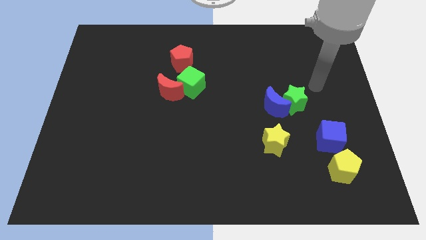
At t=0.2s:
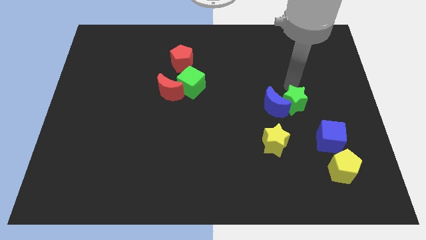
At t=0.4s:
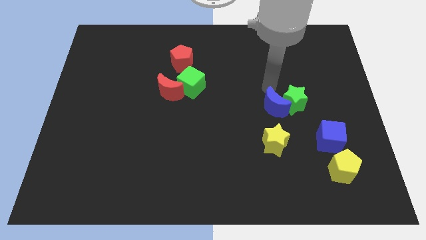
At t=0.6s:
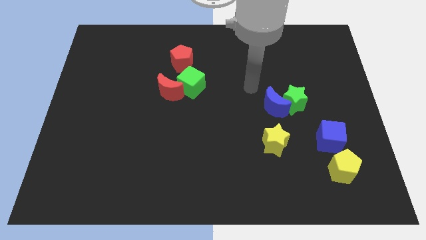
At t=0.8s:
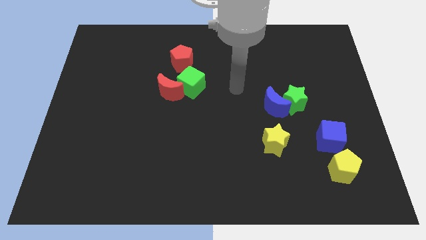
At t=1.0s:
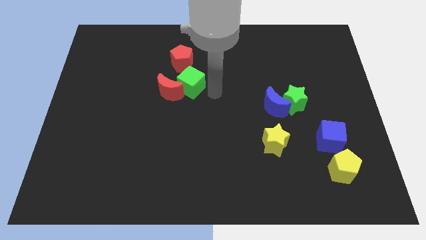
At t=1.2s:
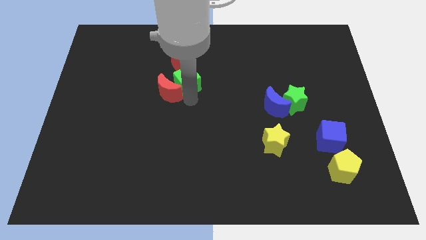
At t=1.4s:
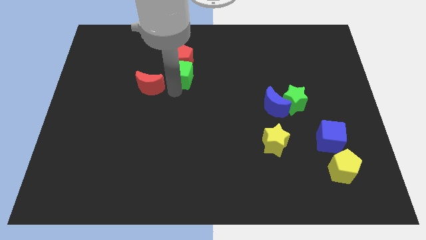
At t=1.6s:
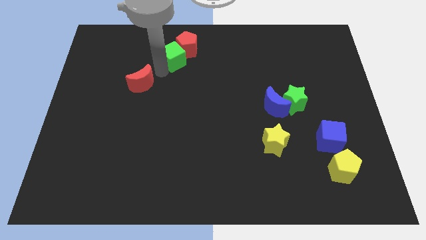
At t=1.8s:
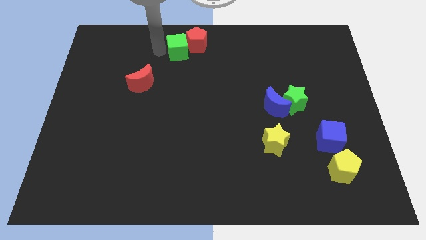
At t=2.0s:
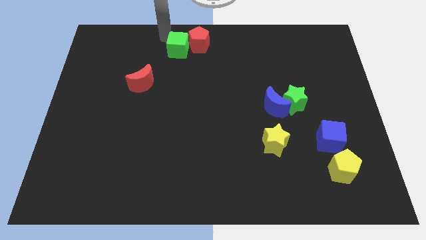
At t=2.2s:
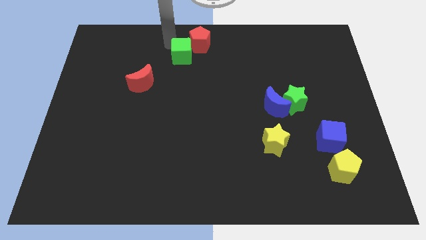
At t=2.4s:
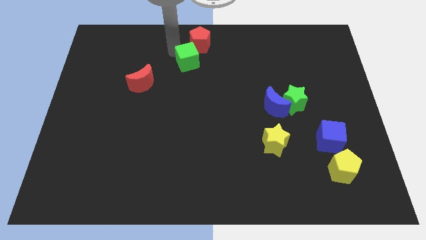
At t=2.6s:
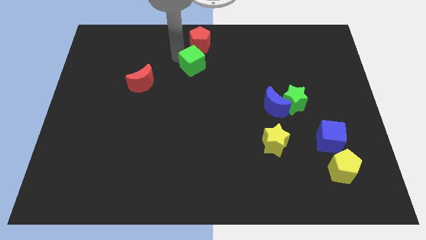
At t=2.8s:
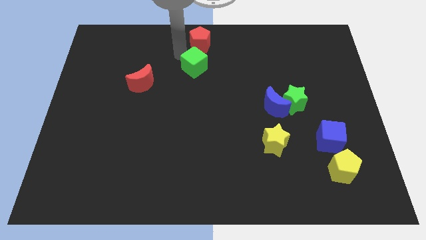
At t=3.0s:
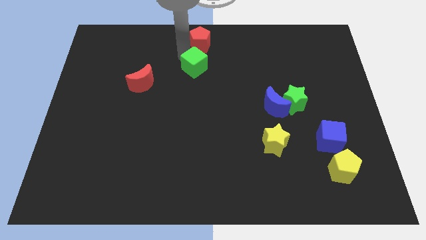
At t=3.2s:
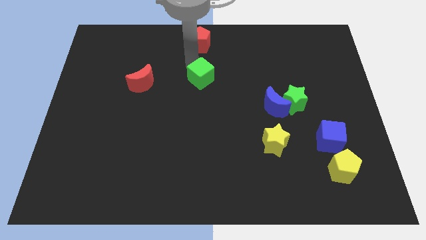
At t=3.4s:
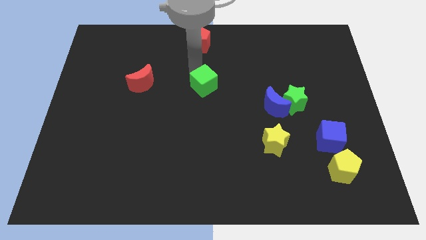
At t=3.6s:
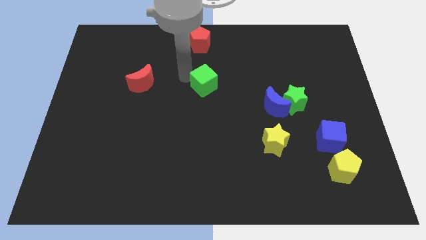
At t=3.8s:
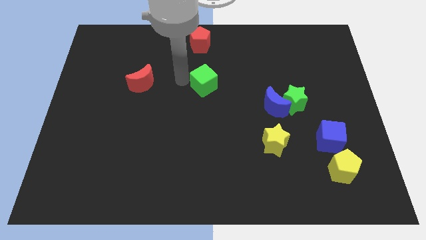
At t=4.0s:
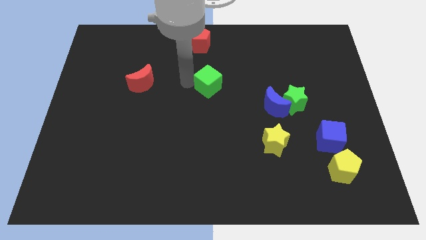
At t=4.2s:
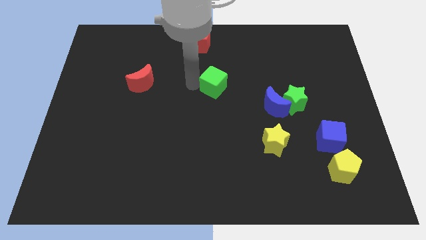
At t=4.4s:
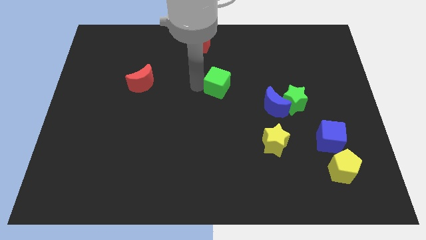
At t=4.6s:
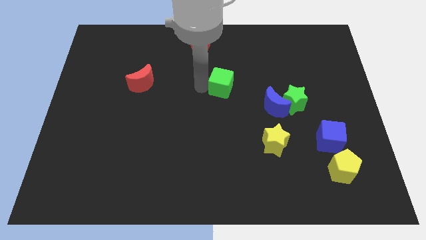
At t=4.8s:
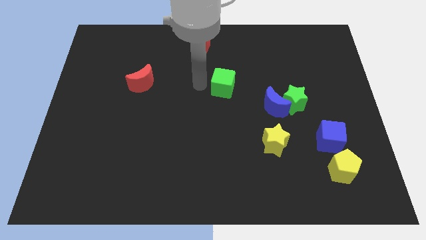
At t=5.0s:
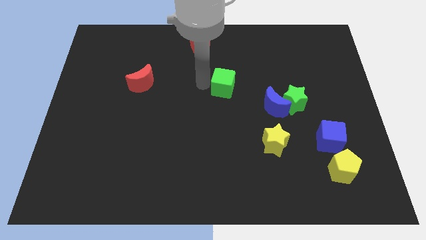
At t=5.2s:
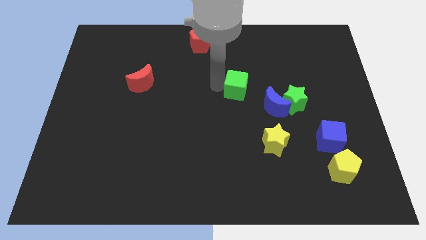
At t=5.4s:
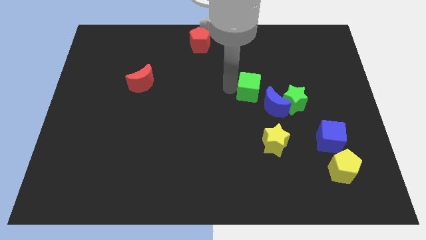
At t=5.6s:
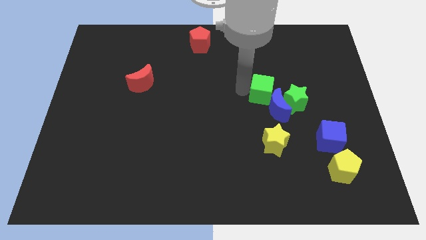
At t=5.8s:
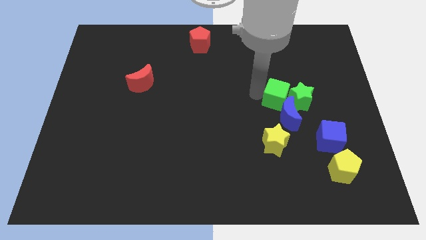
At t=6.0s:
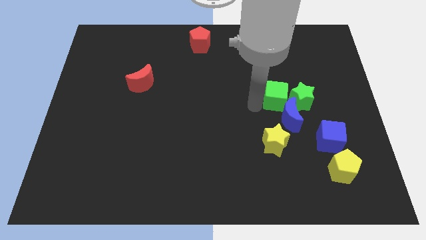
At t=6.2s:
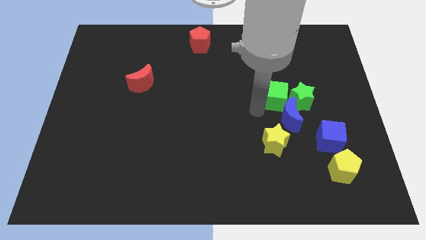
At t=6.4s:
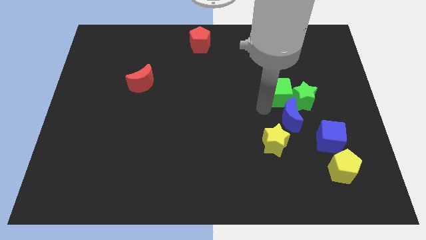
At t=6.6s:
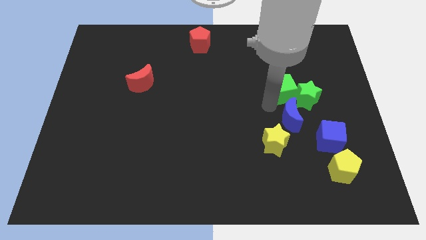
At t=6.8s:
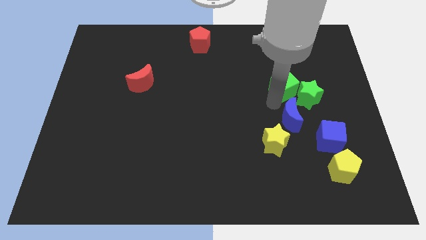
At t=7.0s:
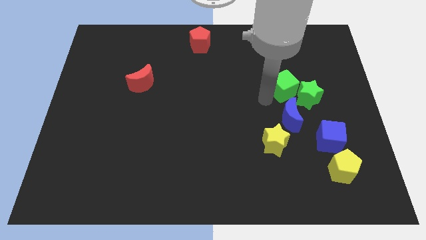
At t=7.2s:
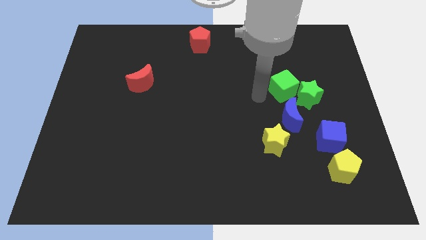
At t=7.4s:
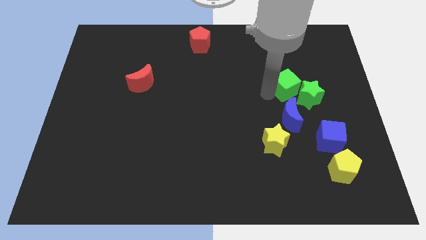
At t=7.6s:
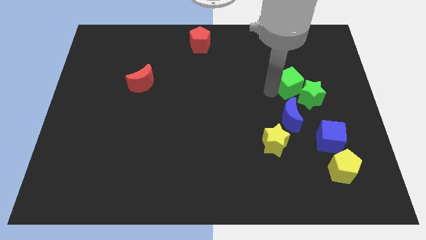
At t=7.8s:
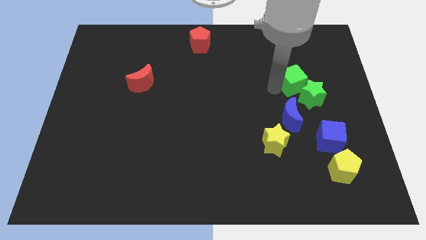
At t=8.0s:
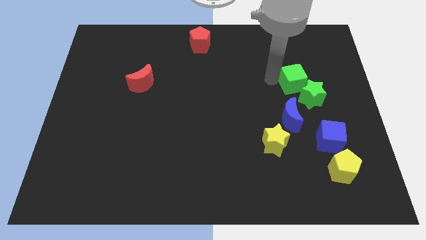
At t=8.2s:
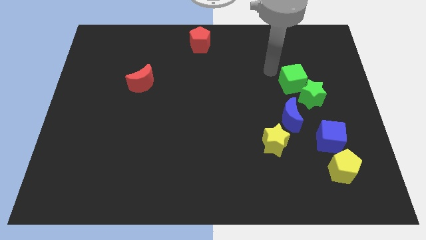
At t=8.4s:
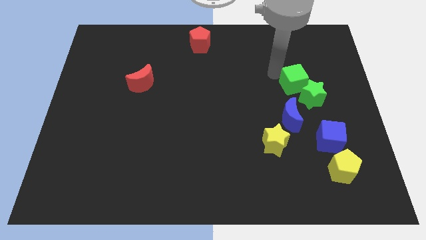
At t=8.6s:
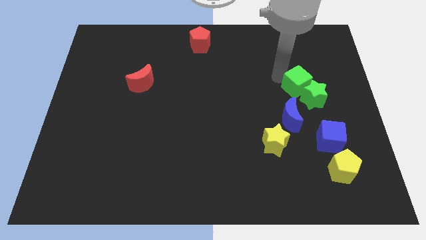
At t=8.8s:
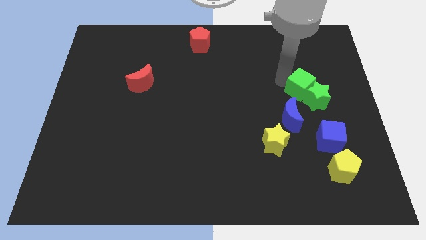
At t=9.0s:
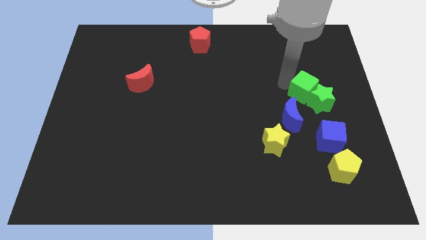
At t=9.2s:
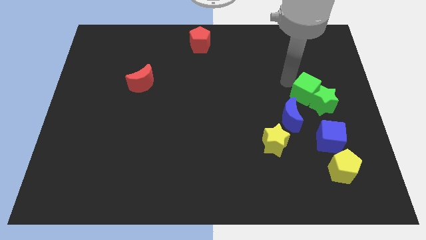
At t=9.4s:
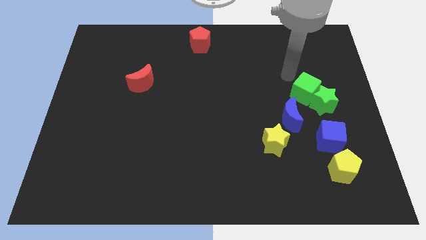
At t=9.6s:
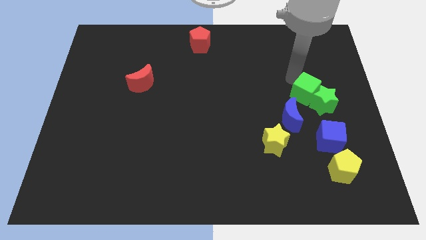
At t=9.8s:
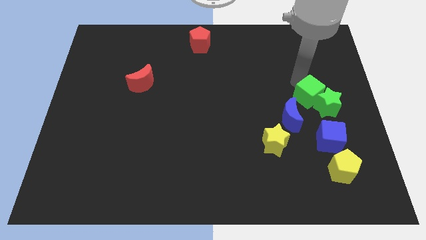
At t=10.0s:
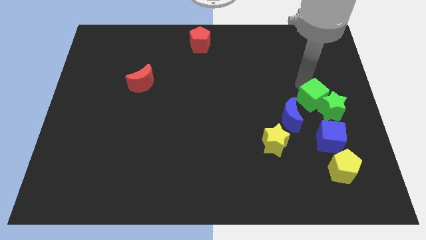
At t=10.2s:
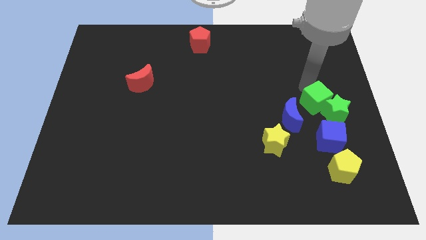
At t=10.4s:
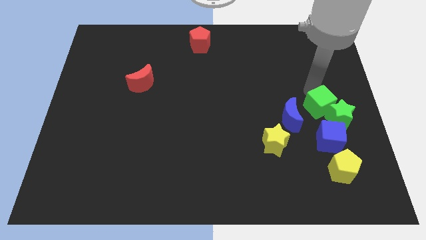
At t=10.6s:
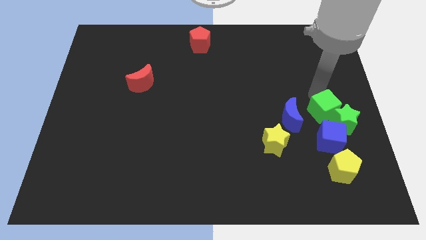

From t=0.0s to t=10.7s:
push the green cube above the yellow pentagon

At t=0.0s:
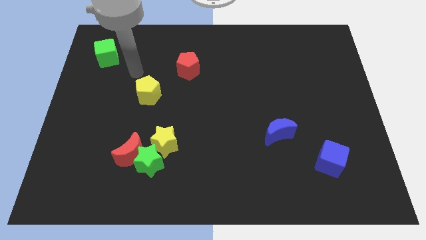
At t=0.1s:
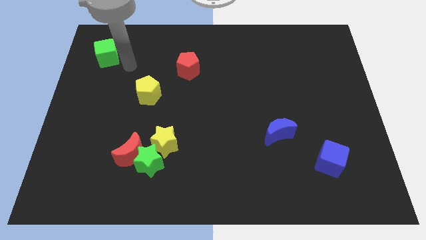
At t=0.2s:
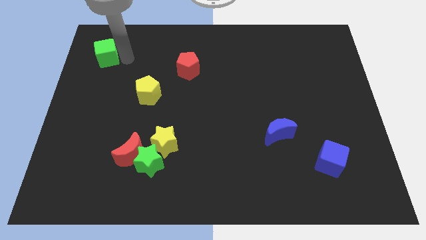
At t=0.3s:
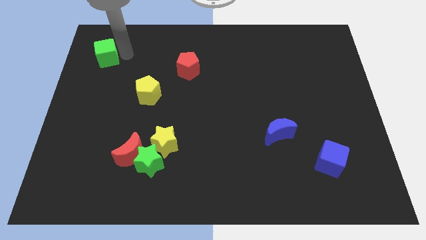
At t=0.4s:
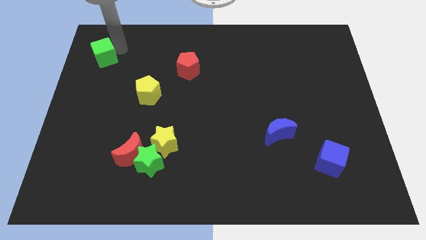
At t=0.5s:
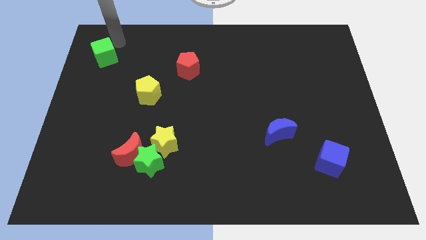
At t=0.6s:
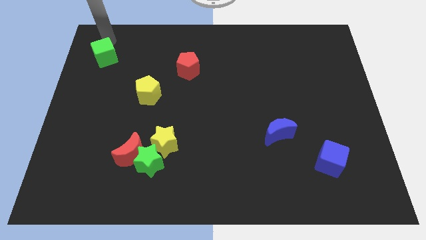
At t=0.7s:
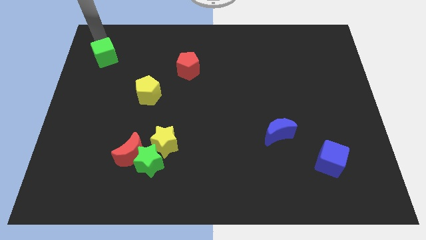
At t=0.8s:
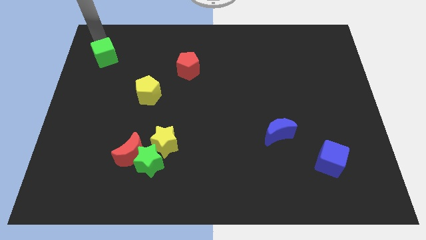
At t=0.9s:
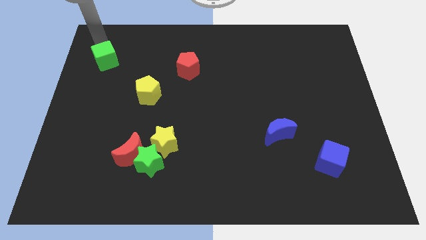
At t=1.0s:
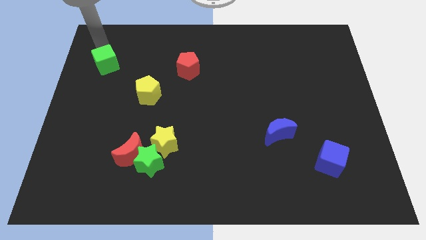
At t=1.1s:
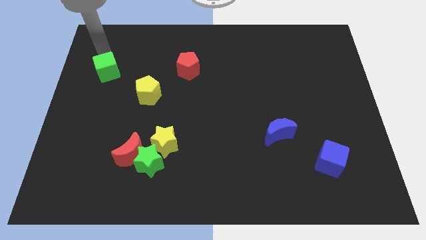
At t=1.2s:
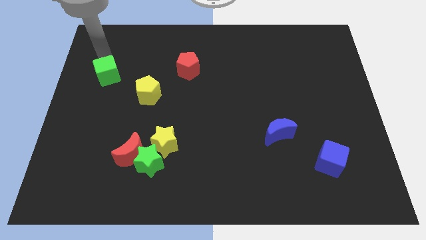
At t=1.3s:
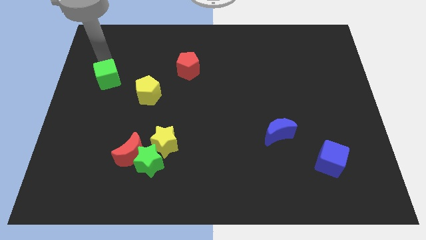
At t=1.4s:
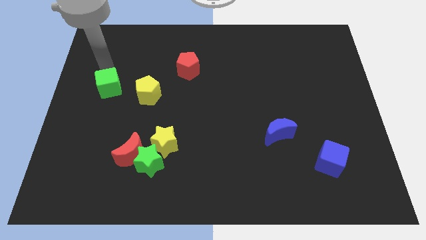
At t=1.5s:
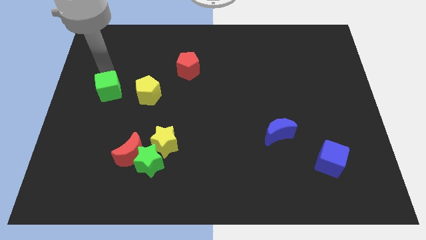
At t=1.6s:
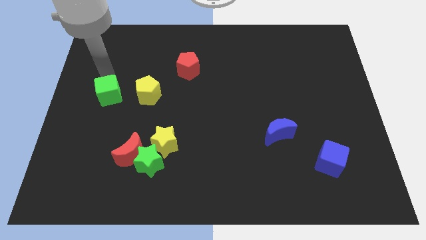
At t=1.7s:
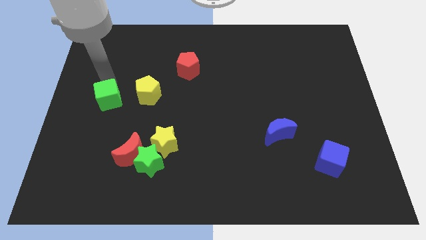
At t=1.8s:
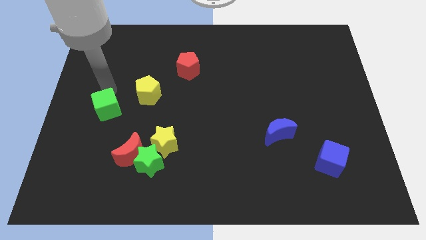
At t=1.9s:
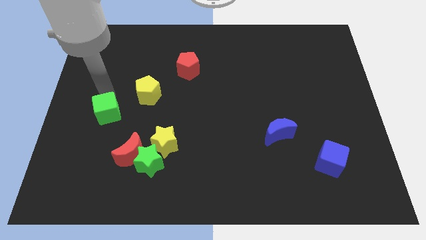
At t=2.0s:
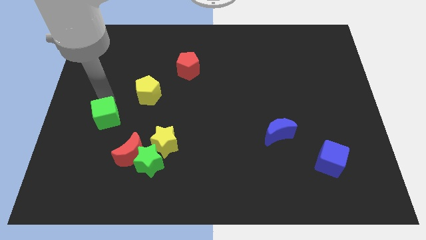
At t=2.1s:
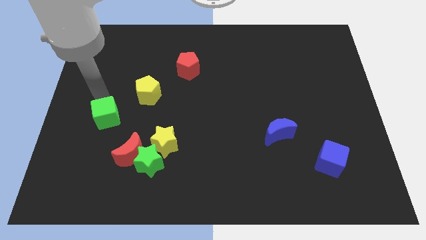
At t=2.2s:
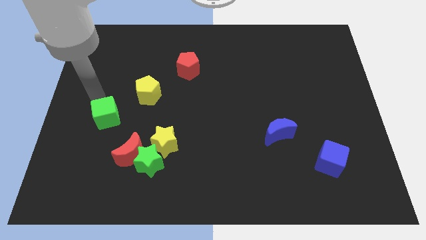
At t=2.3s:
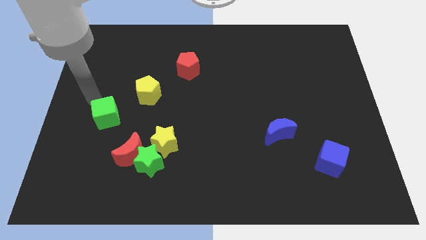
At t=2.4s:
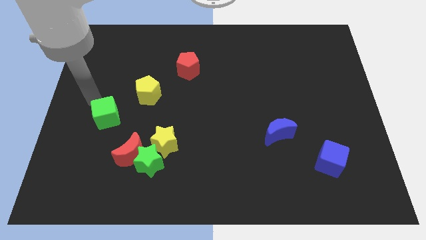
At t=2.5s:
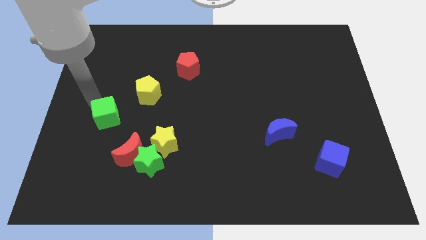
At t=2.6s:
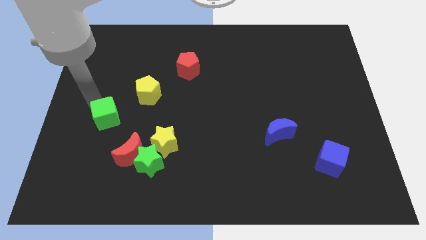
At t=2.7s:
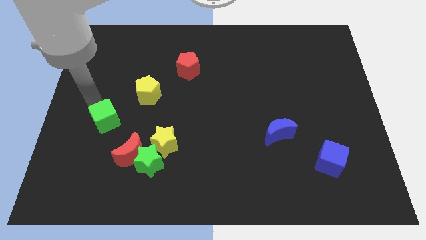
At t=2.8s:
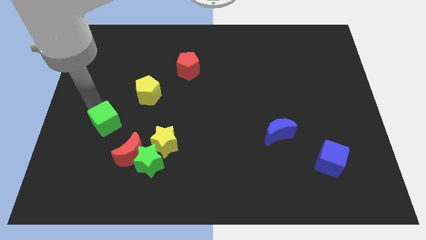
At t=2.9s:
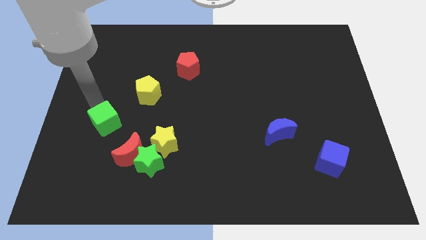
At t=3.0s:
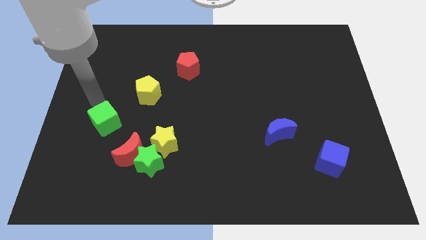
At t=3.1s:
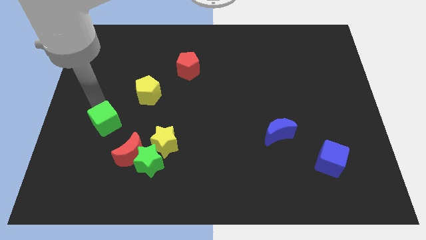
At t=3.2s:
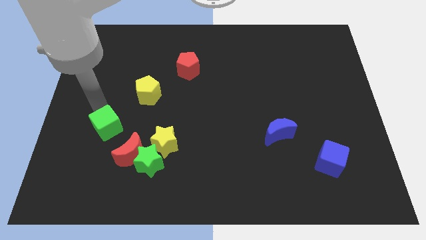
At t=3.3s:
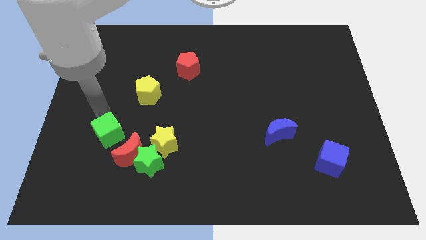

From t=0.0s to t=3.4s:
put the green cube left of the yellow star
